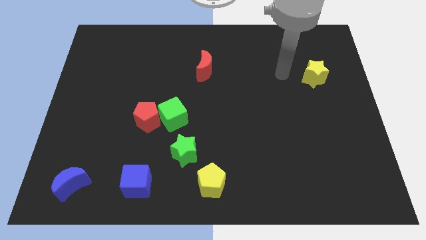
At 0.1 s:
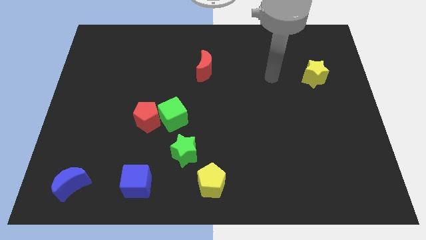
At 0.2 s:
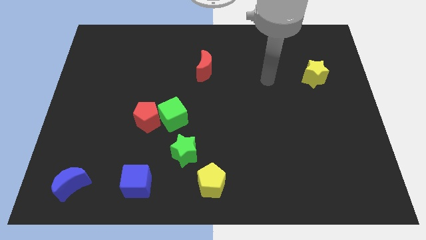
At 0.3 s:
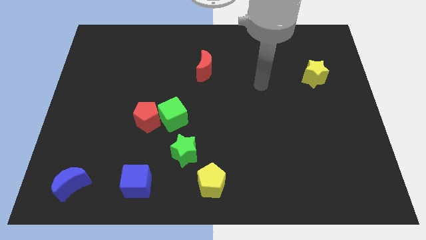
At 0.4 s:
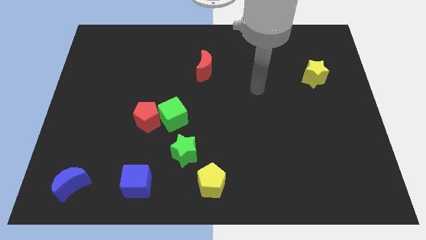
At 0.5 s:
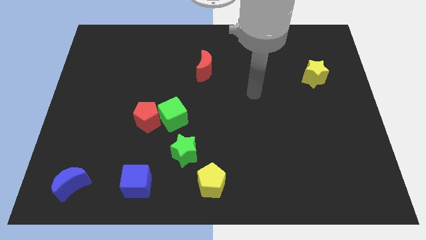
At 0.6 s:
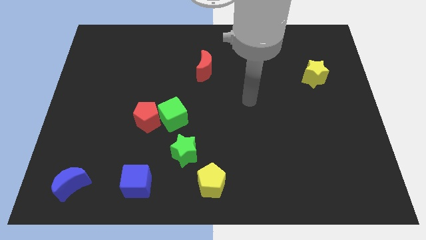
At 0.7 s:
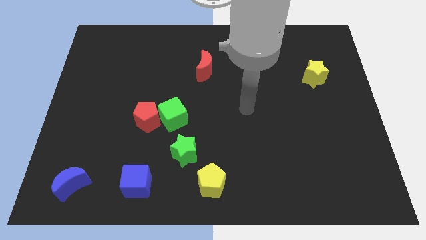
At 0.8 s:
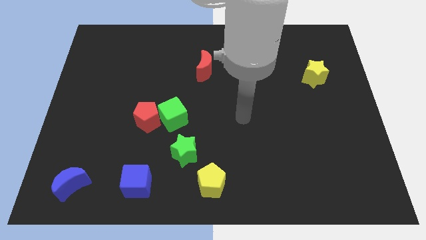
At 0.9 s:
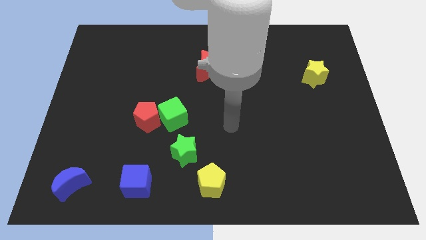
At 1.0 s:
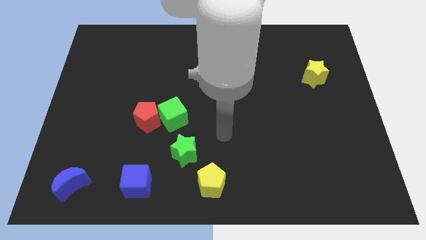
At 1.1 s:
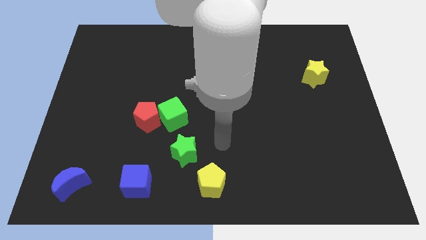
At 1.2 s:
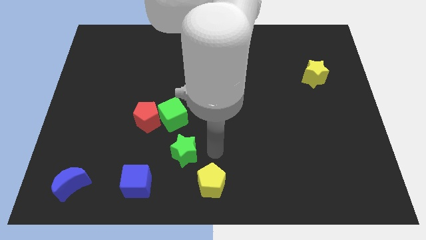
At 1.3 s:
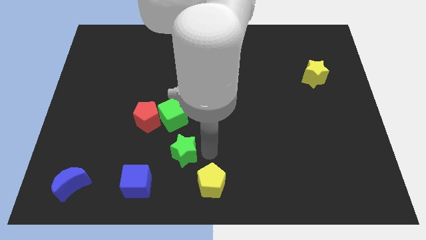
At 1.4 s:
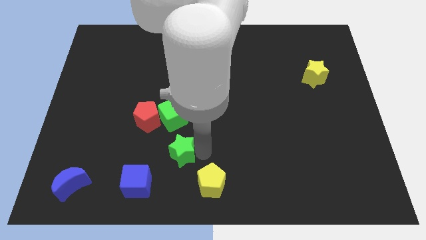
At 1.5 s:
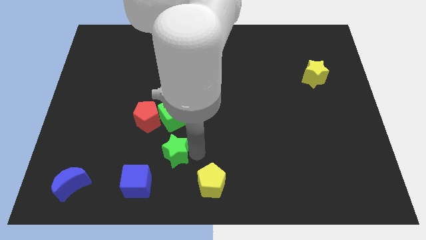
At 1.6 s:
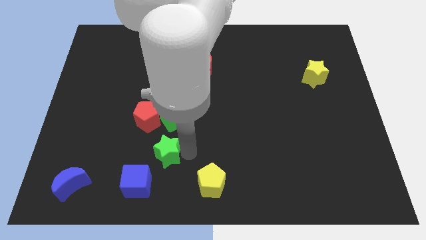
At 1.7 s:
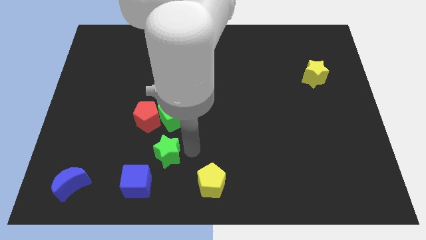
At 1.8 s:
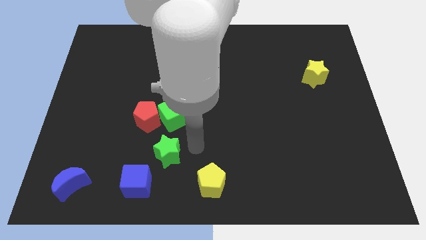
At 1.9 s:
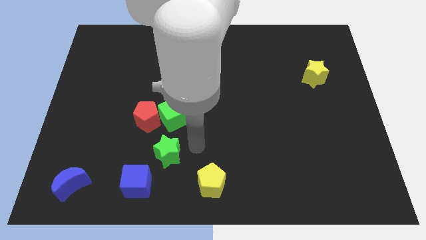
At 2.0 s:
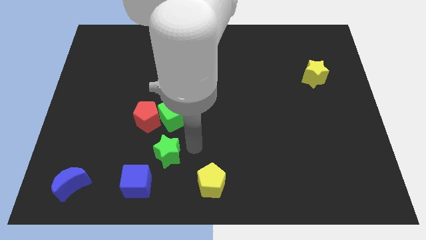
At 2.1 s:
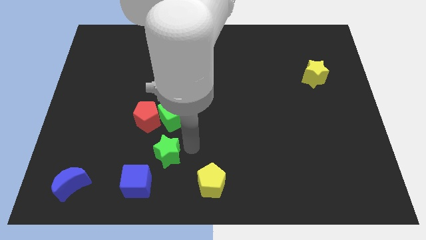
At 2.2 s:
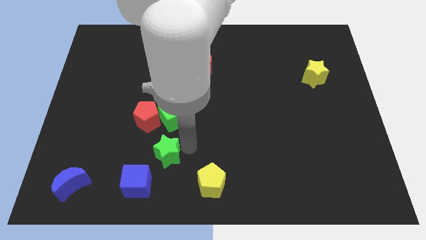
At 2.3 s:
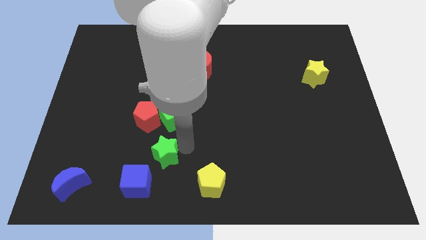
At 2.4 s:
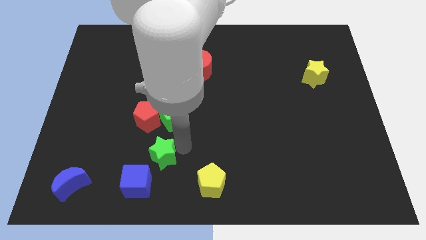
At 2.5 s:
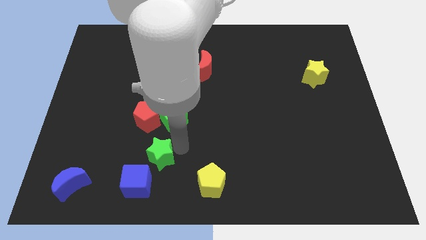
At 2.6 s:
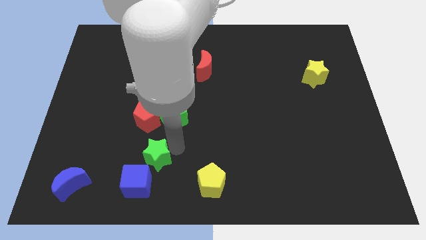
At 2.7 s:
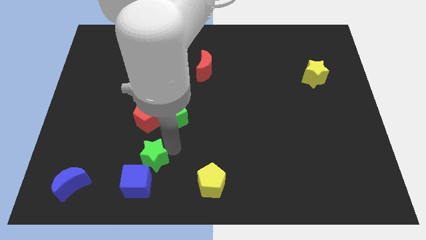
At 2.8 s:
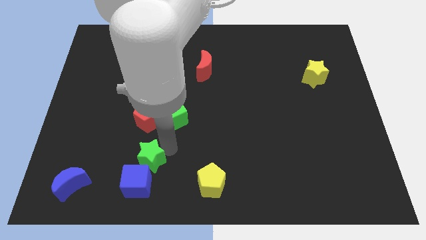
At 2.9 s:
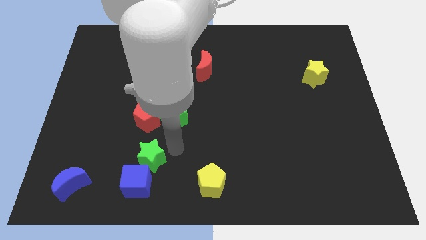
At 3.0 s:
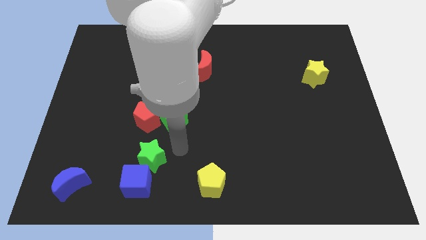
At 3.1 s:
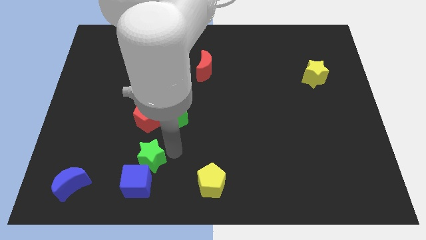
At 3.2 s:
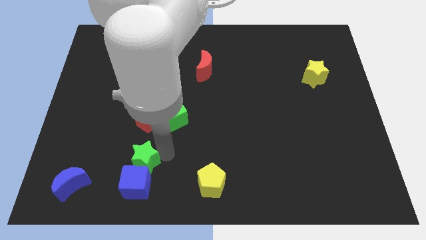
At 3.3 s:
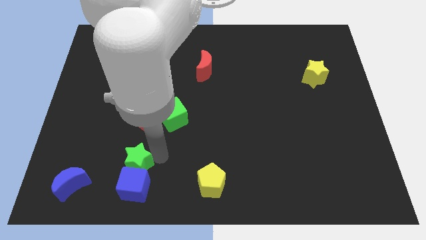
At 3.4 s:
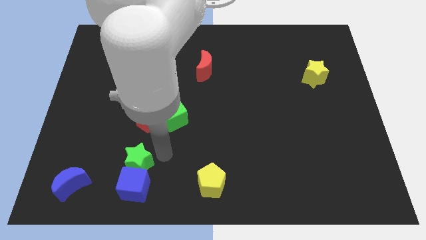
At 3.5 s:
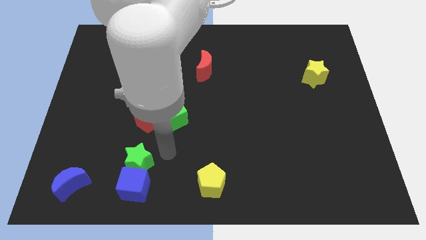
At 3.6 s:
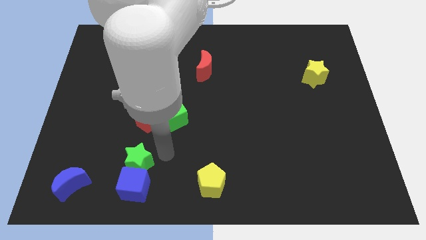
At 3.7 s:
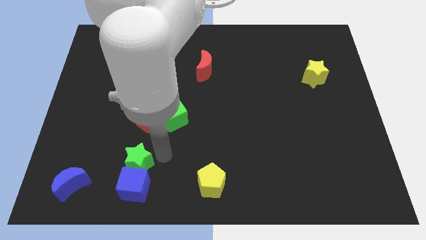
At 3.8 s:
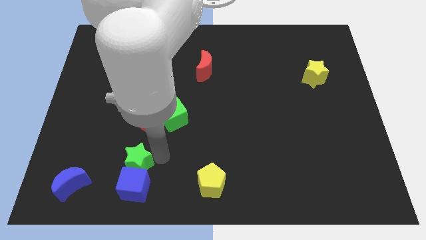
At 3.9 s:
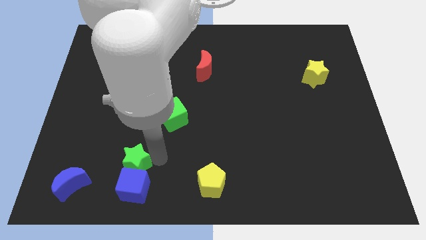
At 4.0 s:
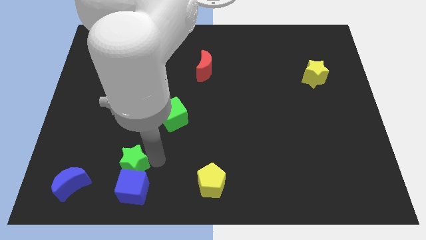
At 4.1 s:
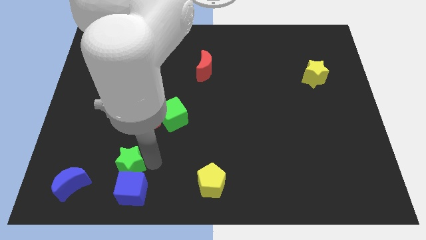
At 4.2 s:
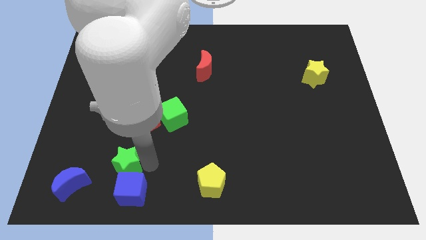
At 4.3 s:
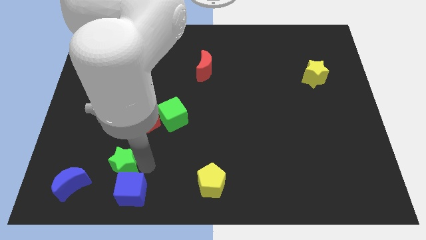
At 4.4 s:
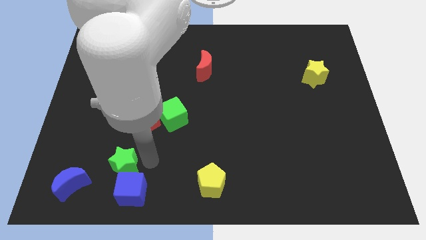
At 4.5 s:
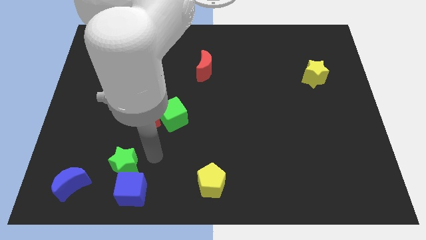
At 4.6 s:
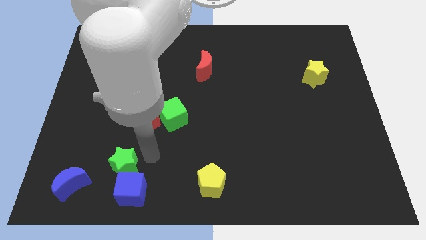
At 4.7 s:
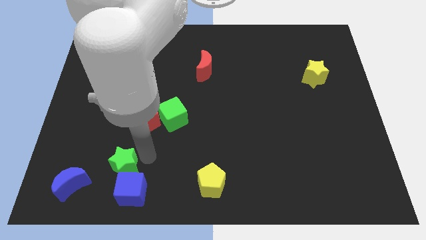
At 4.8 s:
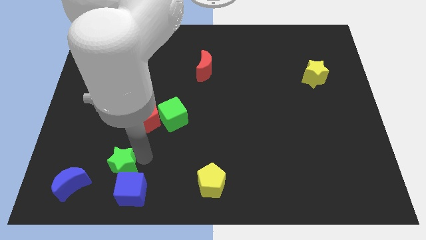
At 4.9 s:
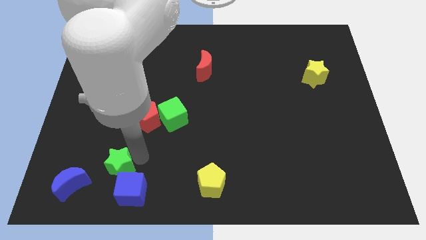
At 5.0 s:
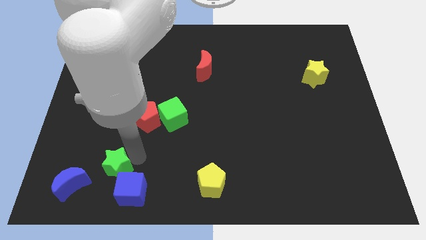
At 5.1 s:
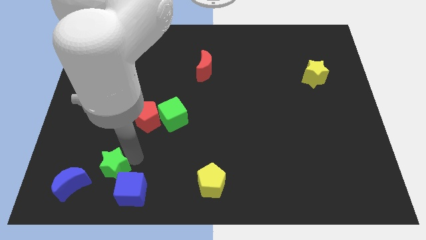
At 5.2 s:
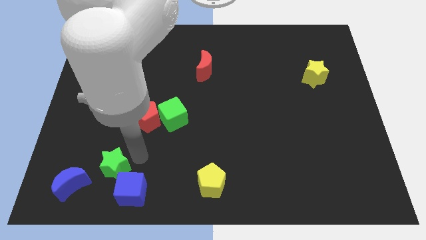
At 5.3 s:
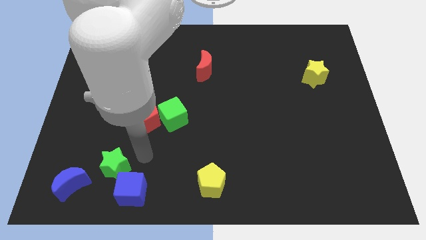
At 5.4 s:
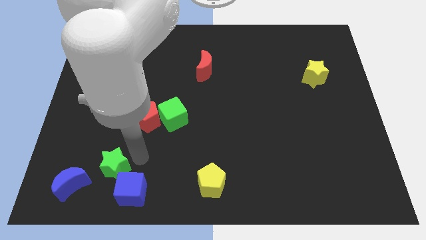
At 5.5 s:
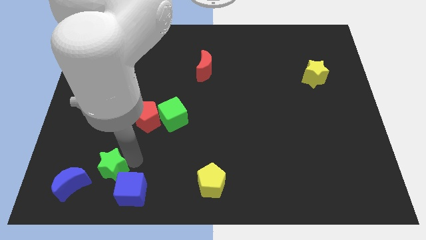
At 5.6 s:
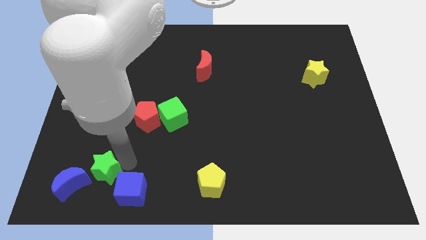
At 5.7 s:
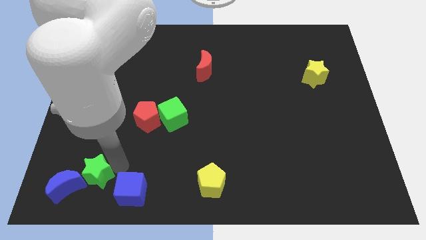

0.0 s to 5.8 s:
push the green star to the blue moon

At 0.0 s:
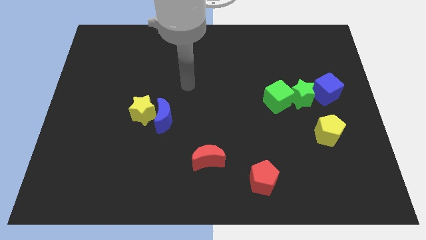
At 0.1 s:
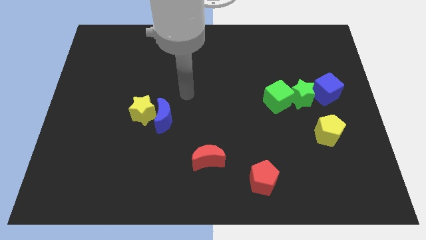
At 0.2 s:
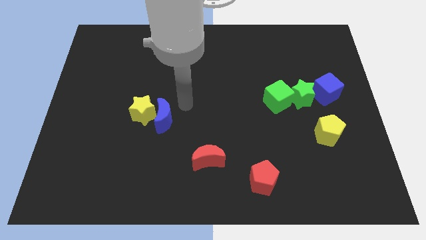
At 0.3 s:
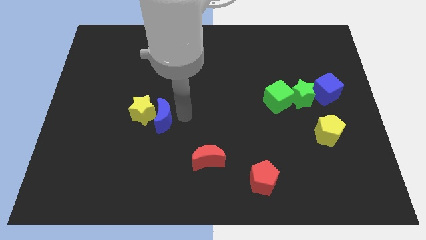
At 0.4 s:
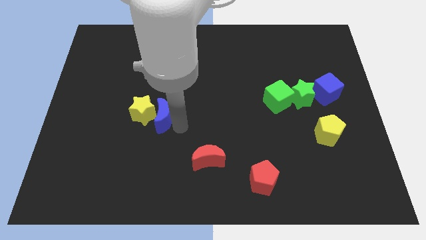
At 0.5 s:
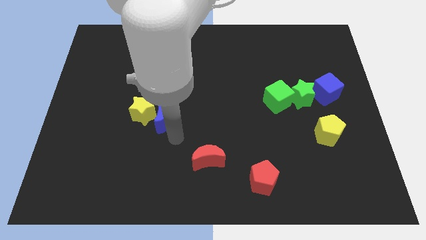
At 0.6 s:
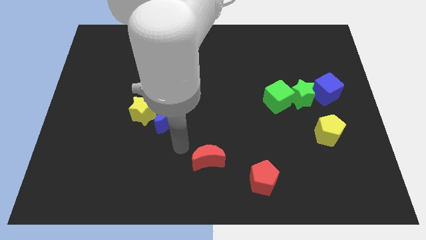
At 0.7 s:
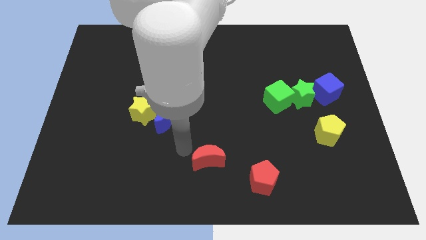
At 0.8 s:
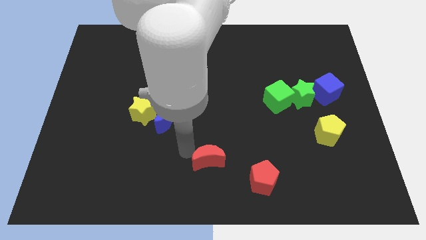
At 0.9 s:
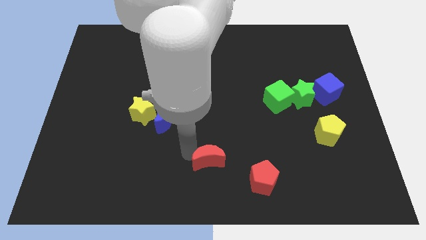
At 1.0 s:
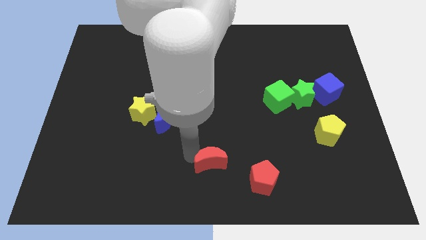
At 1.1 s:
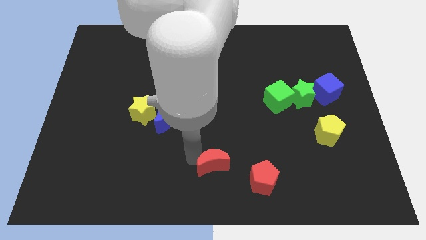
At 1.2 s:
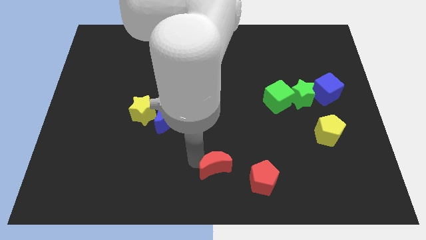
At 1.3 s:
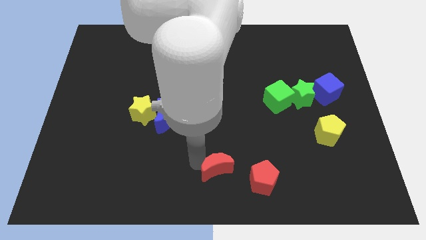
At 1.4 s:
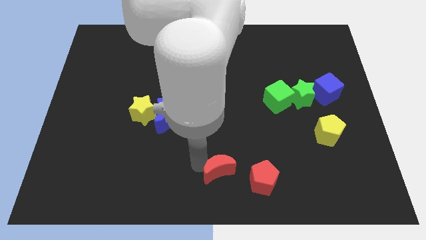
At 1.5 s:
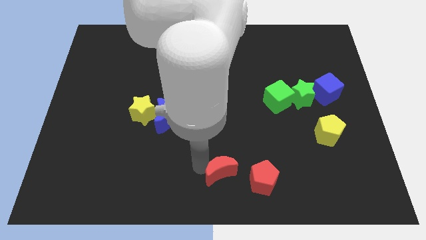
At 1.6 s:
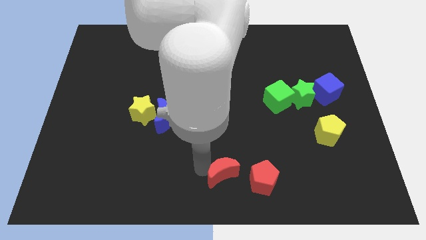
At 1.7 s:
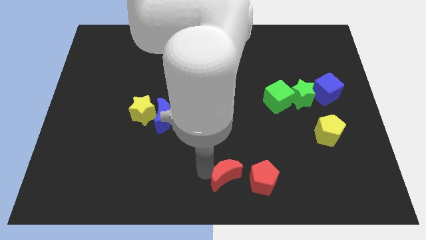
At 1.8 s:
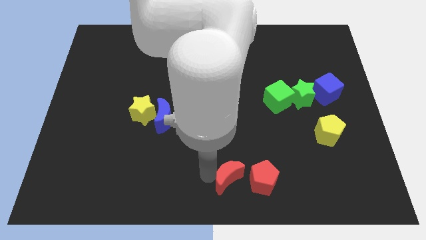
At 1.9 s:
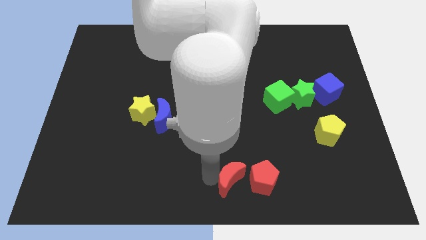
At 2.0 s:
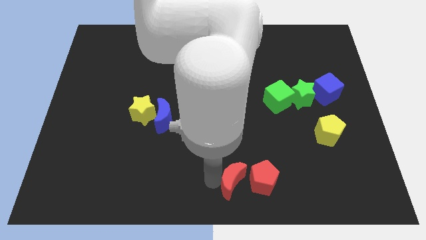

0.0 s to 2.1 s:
move the red moon next to the red pentagon
